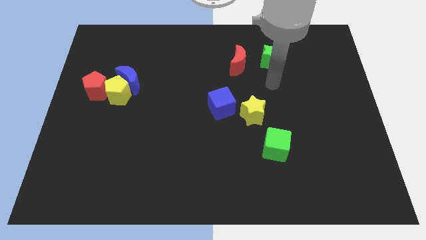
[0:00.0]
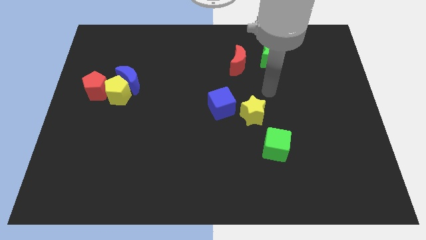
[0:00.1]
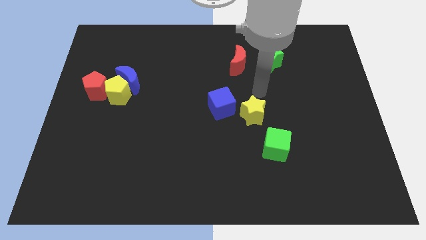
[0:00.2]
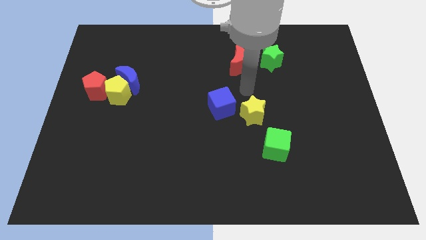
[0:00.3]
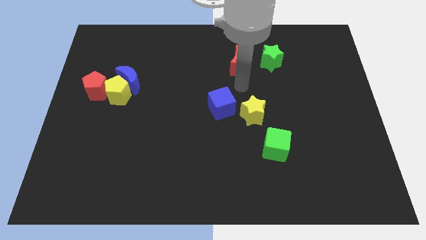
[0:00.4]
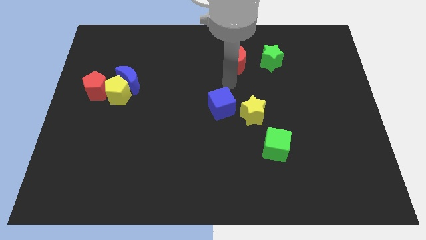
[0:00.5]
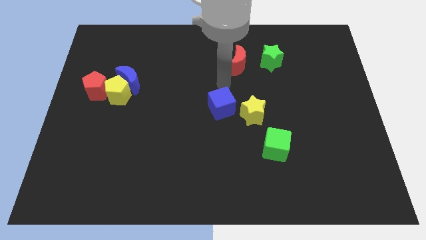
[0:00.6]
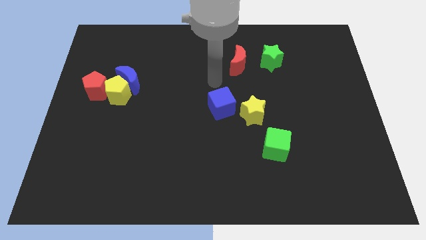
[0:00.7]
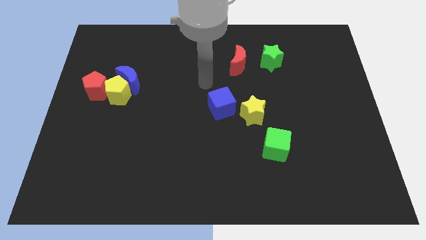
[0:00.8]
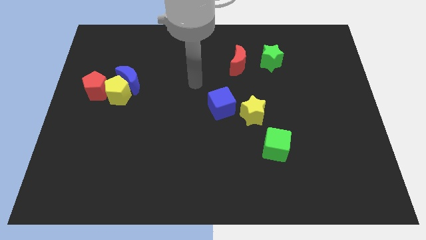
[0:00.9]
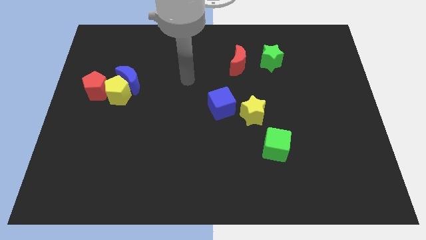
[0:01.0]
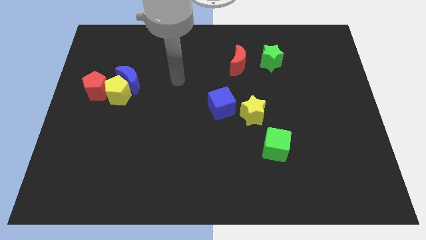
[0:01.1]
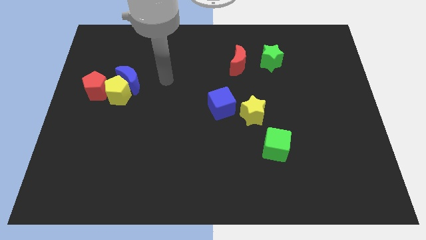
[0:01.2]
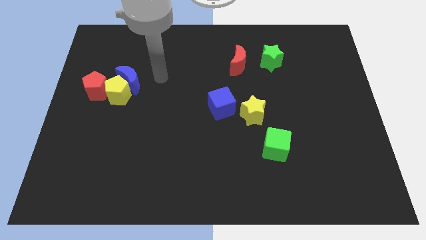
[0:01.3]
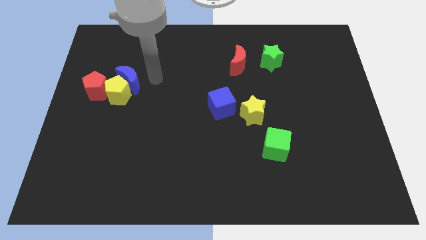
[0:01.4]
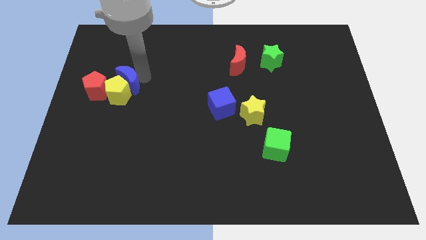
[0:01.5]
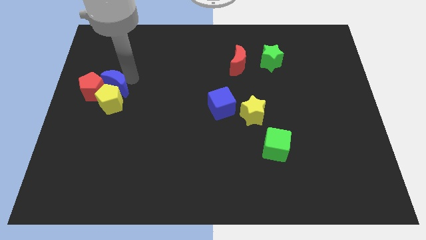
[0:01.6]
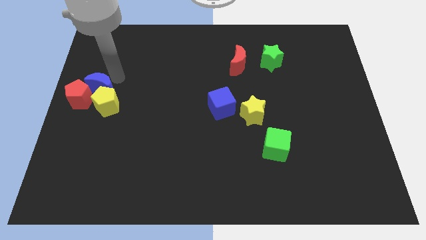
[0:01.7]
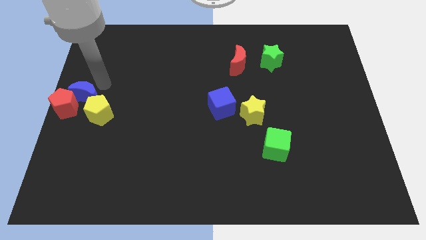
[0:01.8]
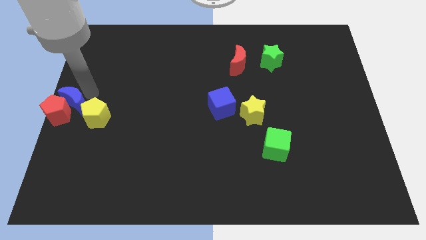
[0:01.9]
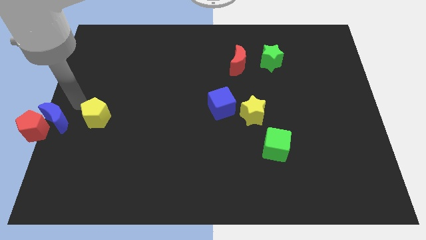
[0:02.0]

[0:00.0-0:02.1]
move the yellow pentagon away from the blue moon and red pentagon

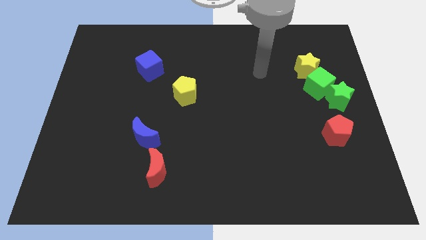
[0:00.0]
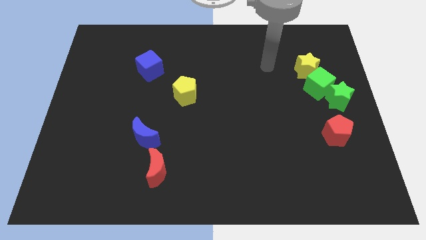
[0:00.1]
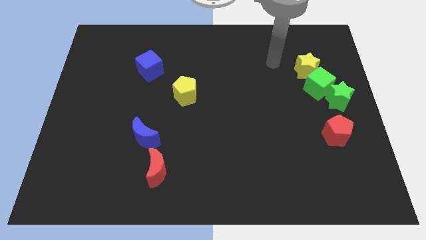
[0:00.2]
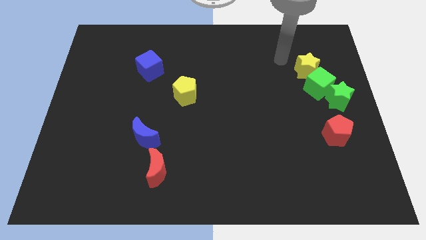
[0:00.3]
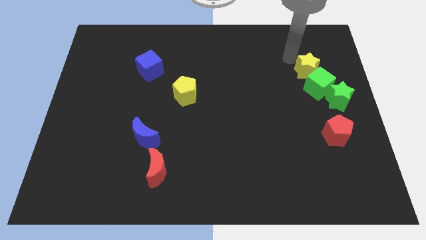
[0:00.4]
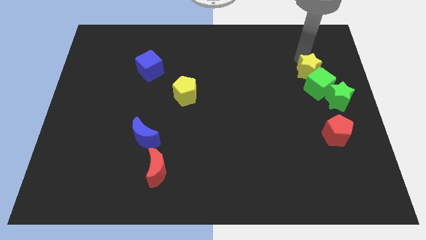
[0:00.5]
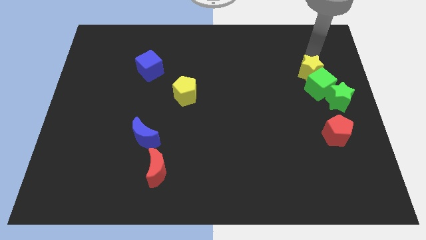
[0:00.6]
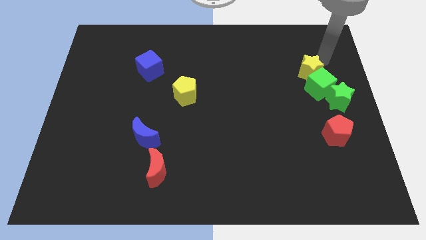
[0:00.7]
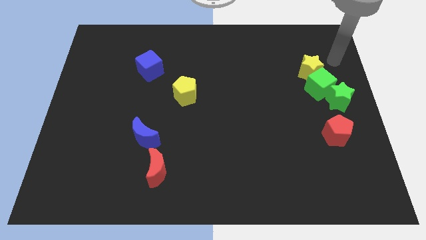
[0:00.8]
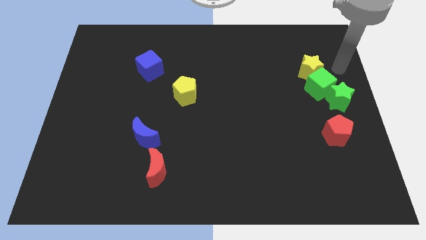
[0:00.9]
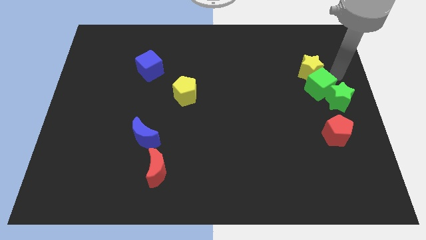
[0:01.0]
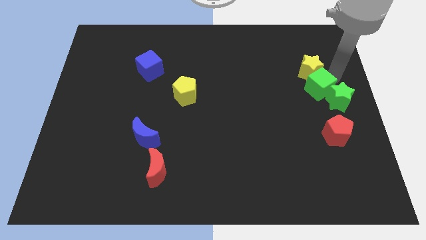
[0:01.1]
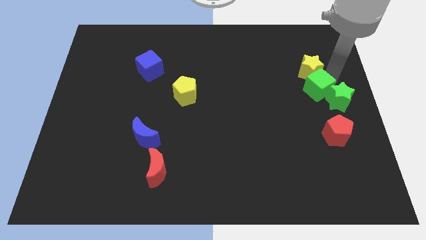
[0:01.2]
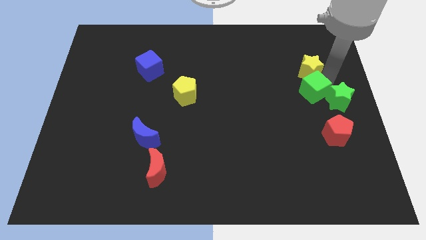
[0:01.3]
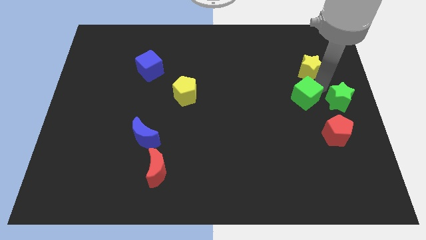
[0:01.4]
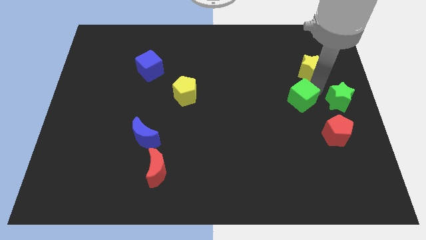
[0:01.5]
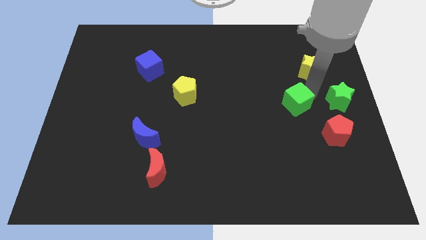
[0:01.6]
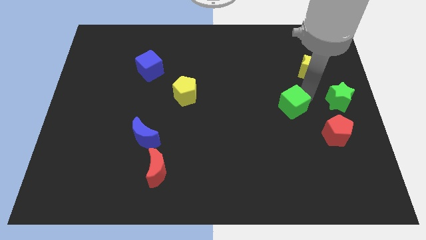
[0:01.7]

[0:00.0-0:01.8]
separate the green cube from the green star and yellow star

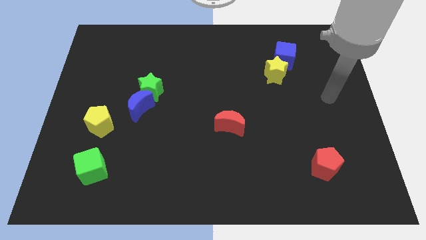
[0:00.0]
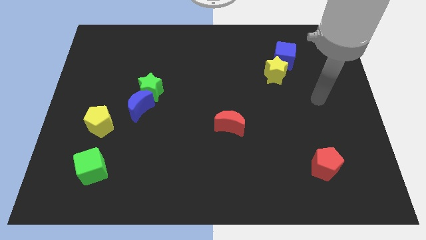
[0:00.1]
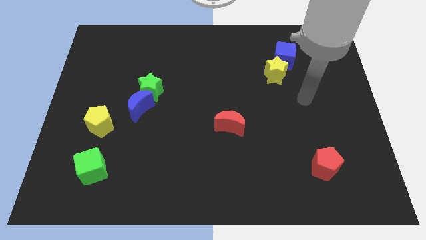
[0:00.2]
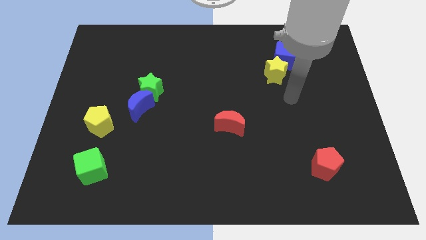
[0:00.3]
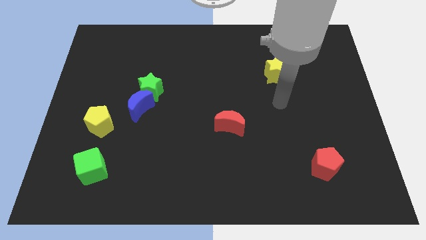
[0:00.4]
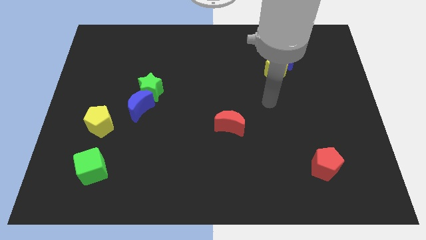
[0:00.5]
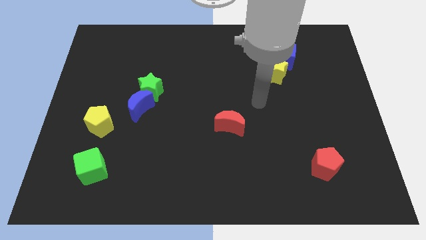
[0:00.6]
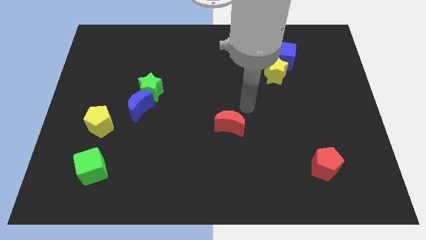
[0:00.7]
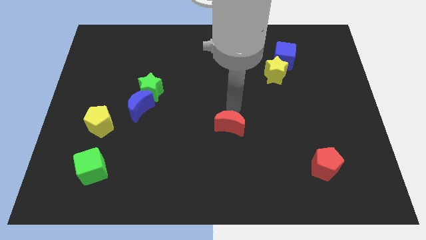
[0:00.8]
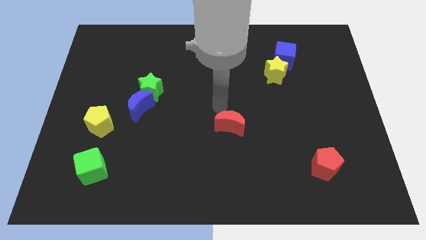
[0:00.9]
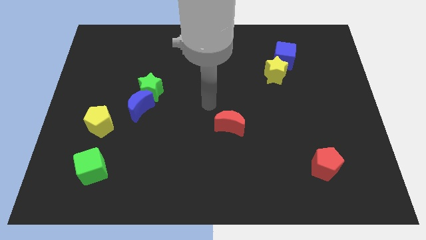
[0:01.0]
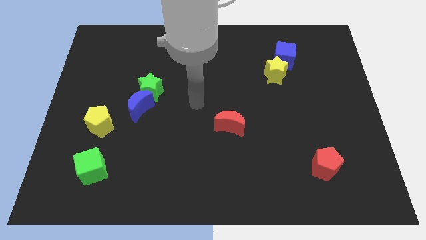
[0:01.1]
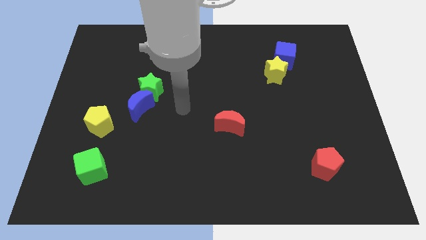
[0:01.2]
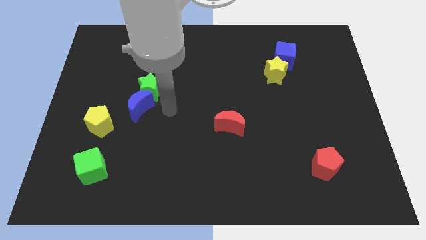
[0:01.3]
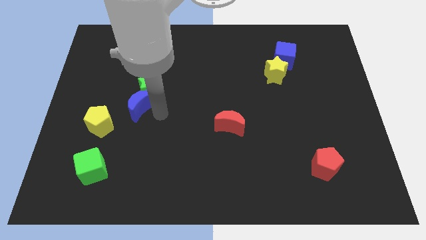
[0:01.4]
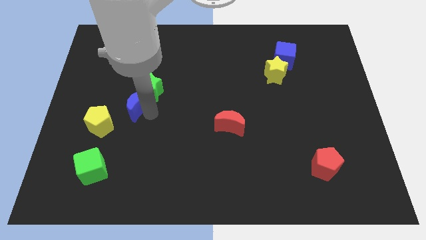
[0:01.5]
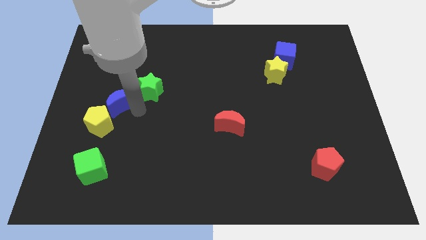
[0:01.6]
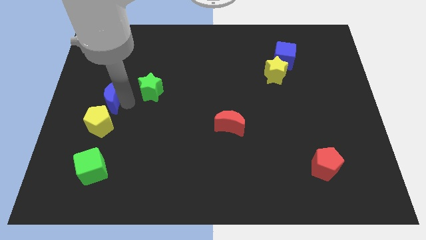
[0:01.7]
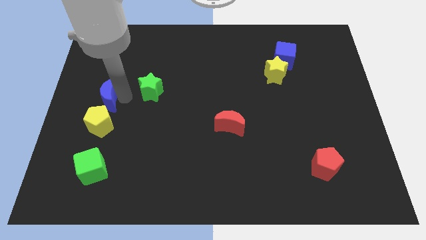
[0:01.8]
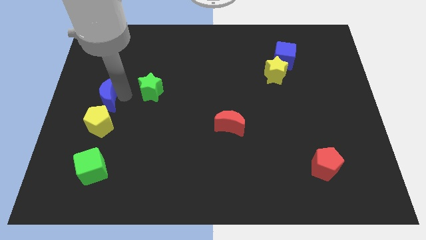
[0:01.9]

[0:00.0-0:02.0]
move the green star away from the blue moon

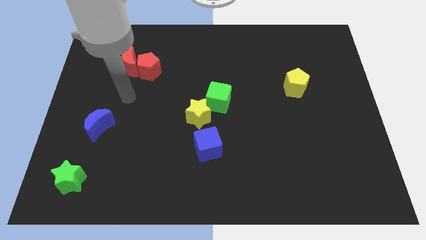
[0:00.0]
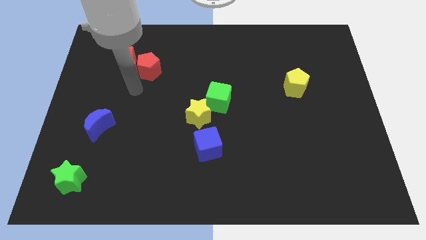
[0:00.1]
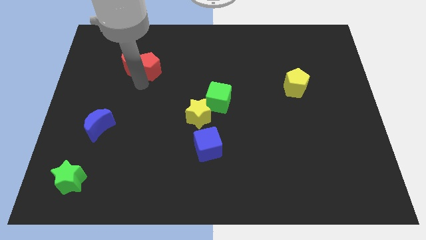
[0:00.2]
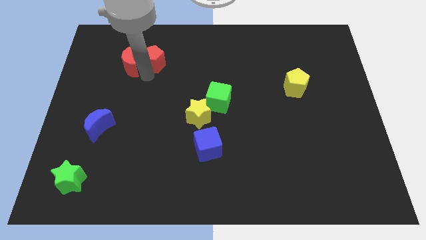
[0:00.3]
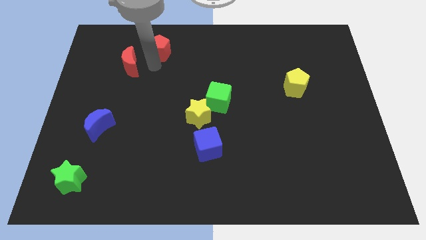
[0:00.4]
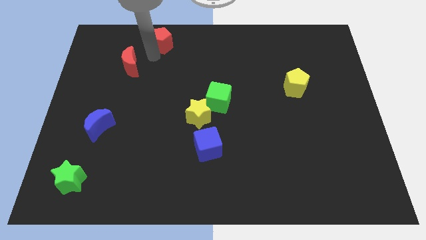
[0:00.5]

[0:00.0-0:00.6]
move the red moon away from the red pentagon

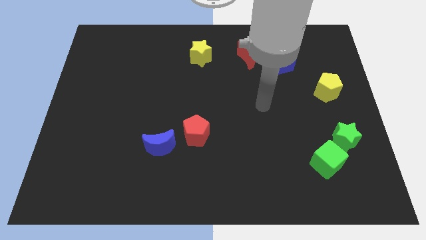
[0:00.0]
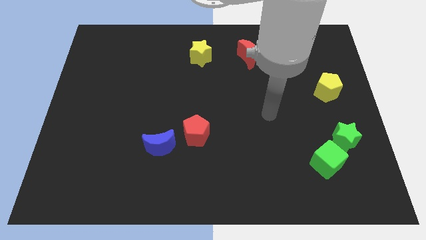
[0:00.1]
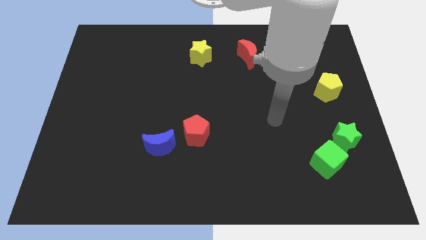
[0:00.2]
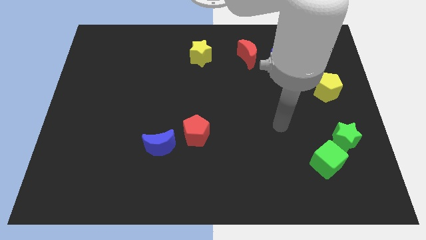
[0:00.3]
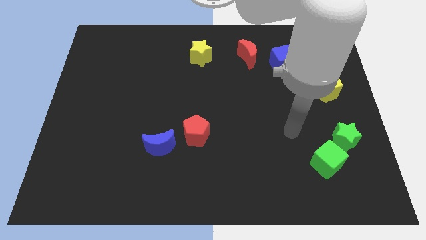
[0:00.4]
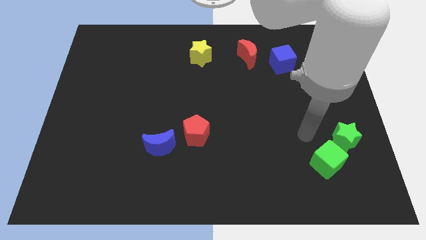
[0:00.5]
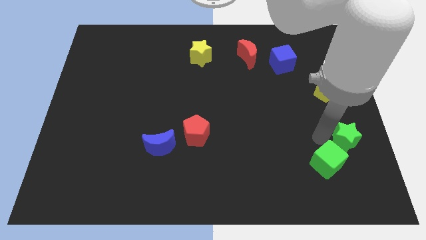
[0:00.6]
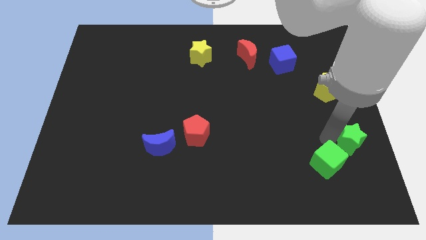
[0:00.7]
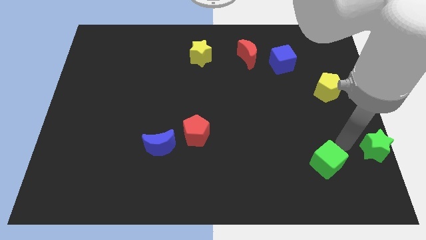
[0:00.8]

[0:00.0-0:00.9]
separate the green cube from the green star

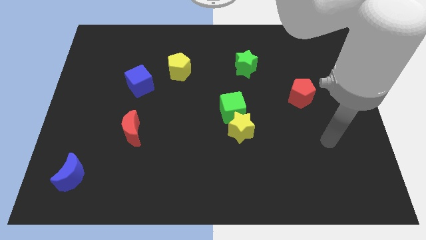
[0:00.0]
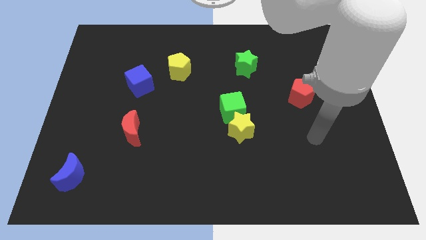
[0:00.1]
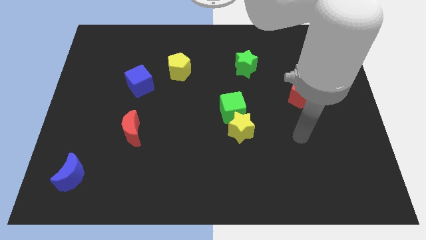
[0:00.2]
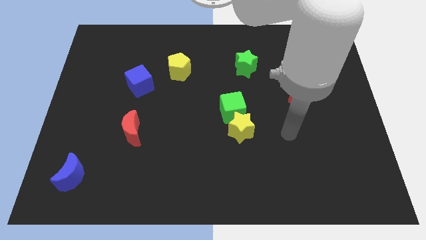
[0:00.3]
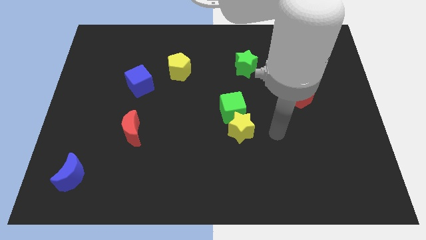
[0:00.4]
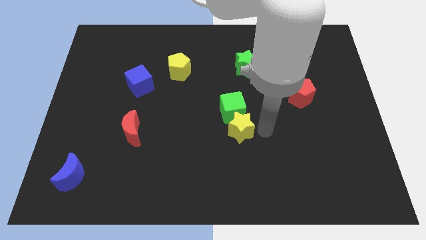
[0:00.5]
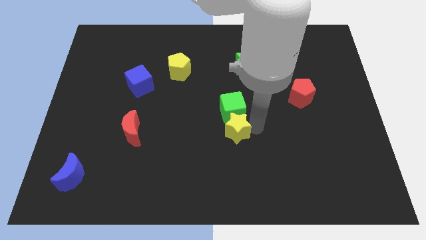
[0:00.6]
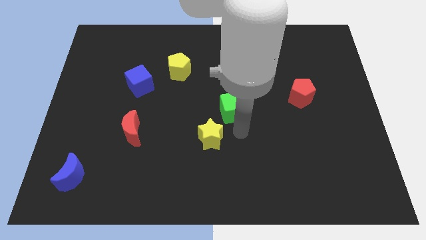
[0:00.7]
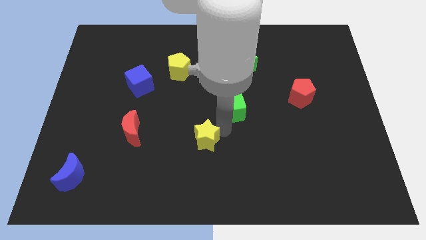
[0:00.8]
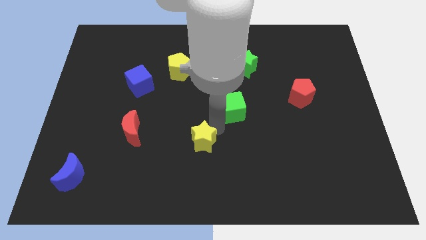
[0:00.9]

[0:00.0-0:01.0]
move the green cube away from the yellow star

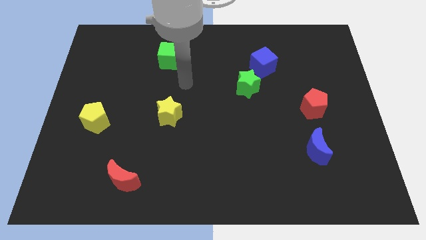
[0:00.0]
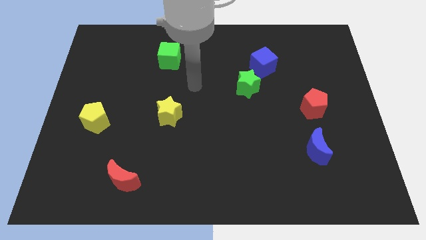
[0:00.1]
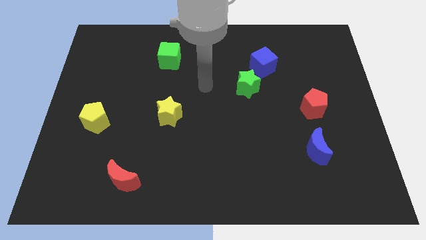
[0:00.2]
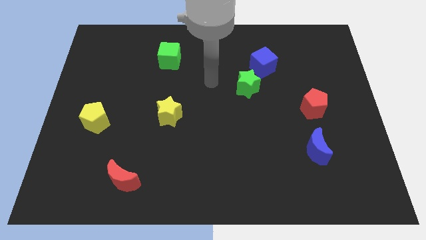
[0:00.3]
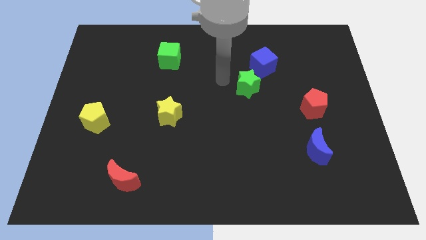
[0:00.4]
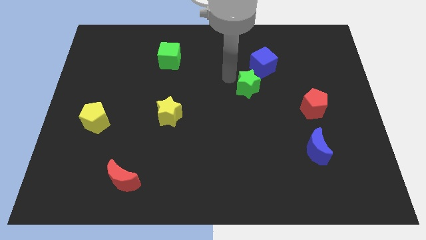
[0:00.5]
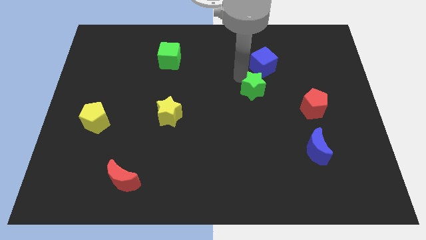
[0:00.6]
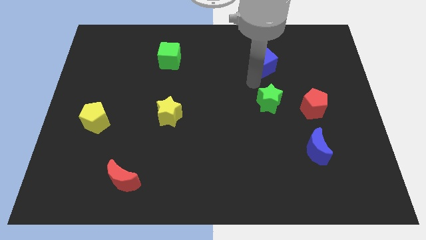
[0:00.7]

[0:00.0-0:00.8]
separate the blue cube from the green star

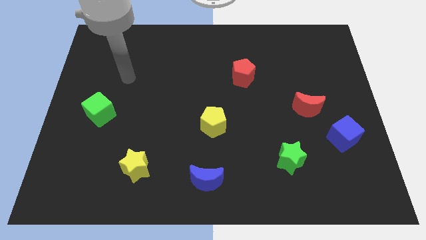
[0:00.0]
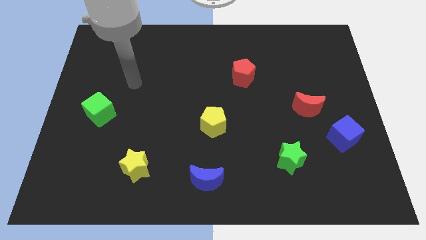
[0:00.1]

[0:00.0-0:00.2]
pull the red moon apart from the blue cube
